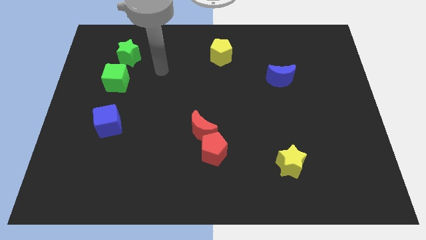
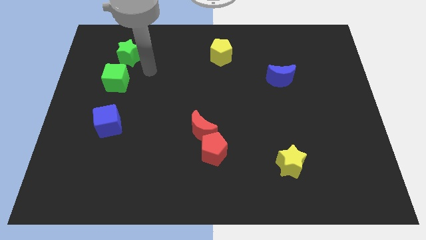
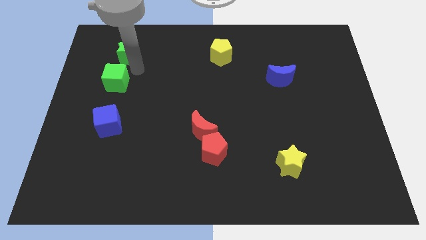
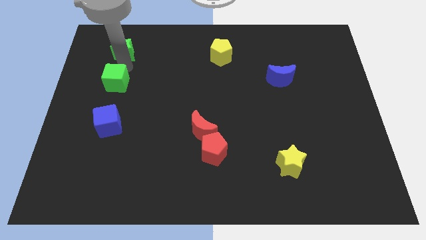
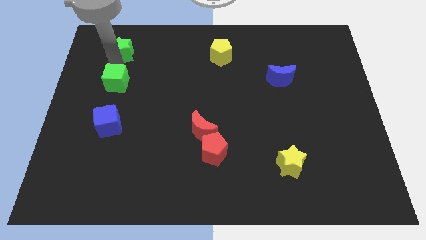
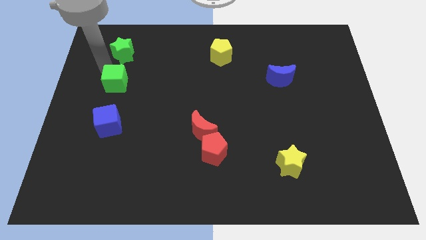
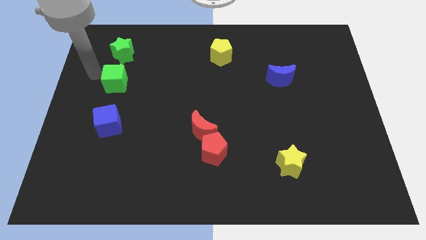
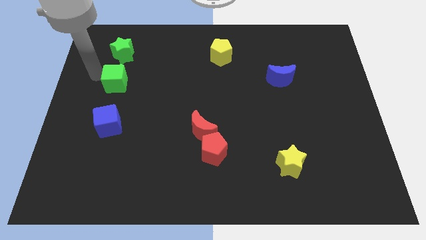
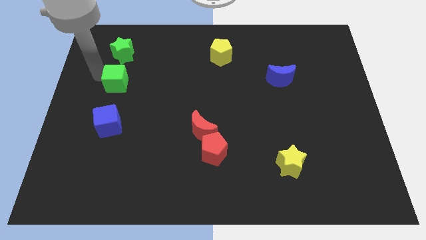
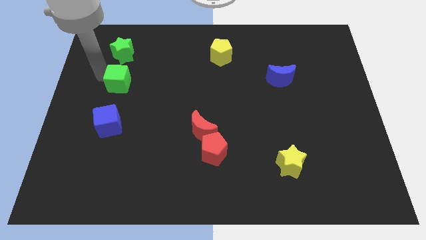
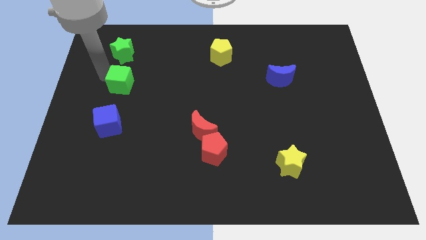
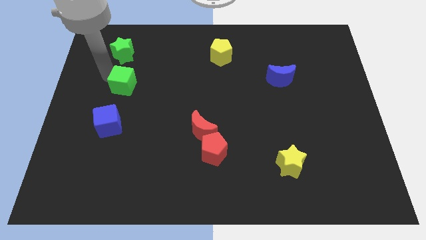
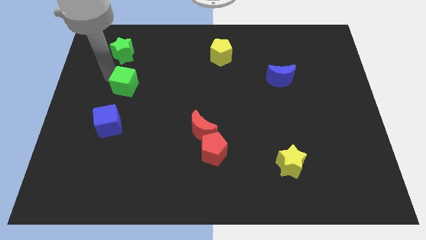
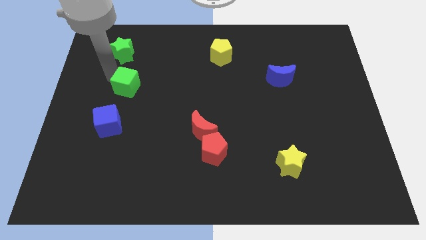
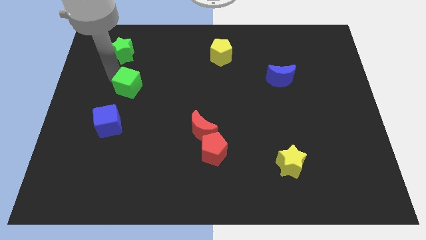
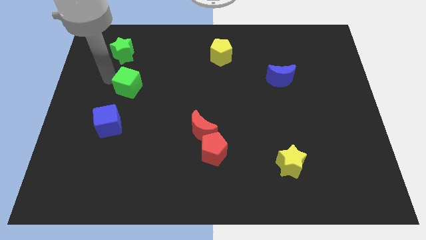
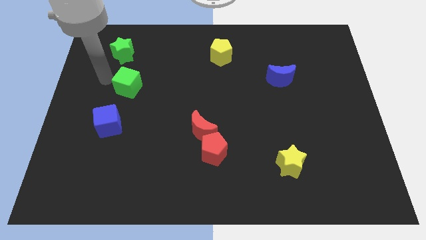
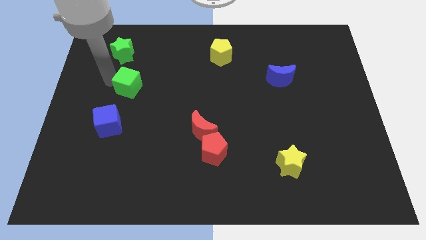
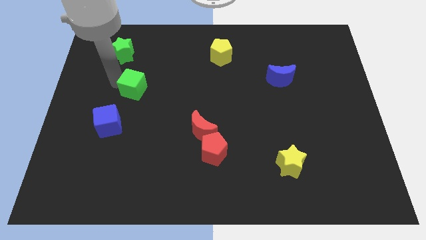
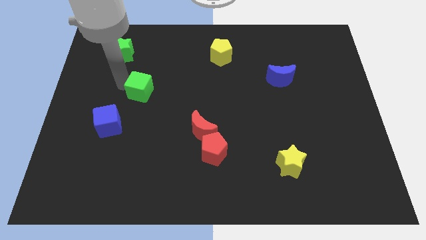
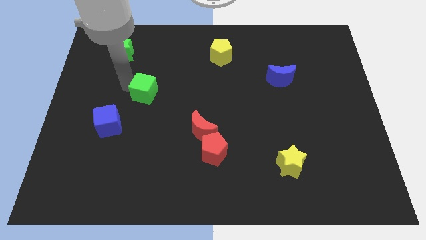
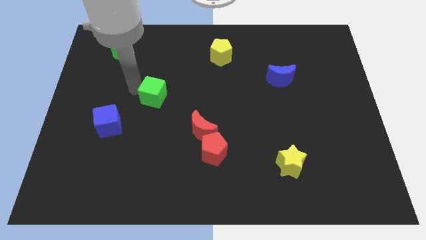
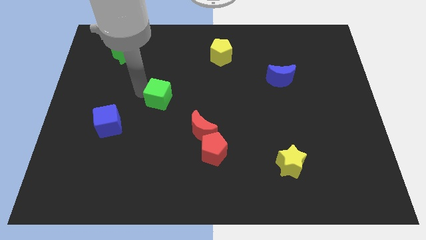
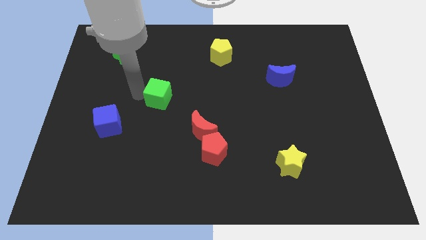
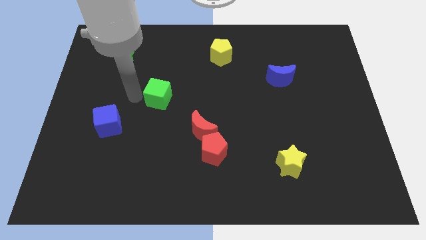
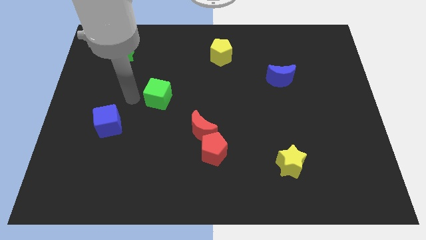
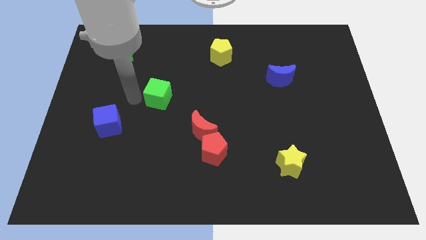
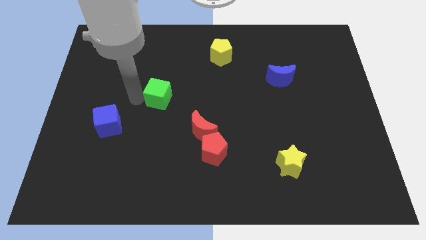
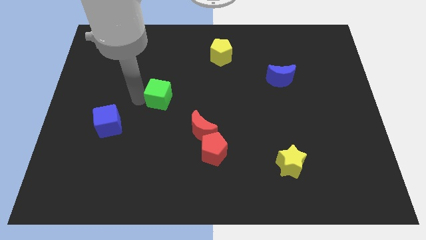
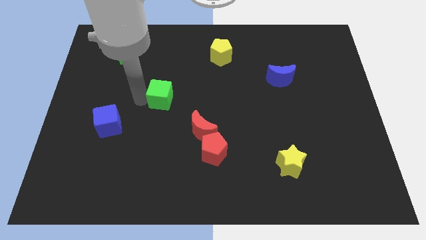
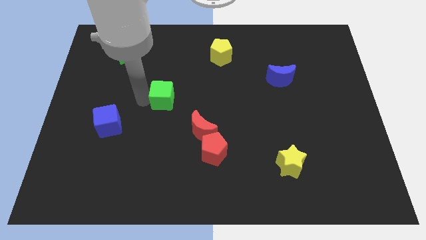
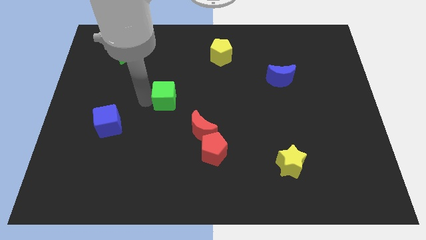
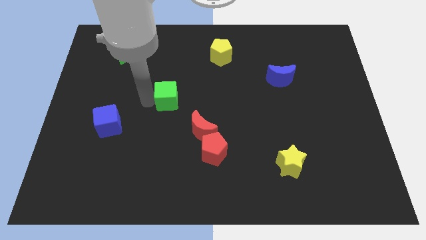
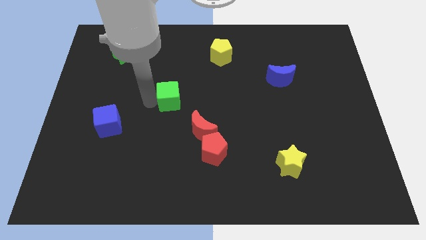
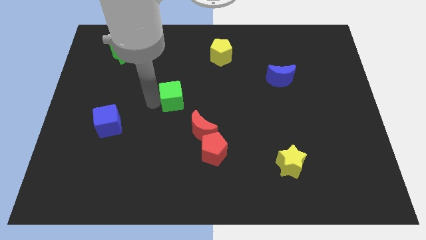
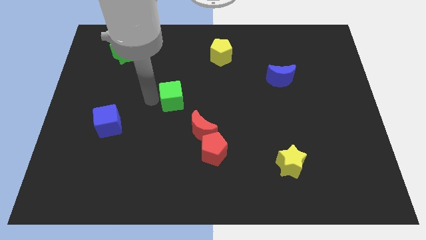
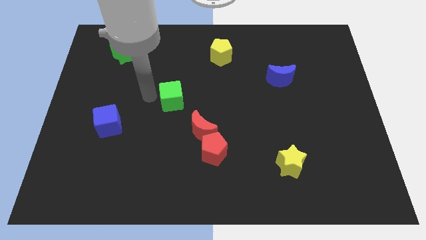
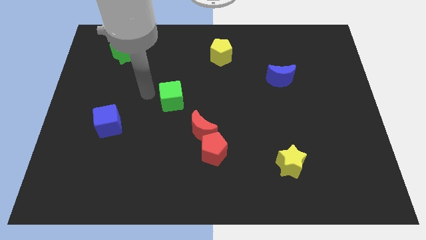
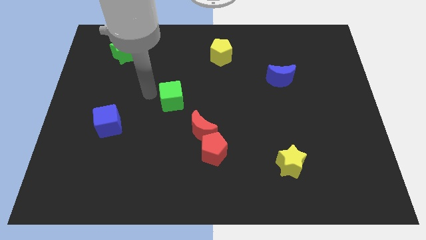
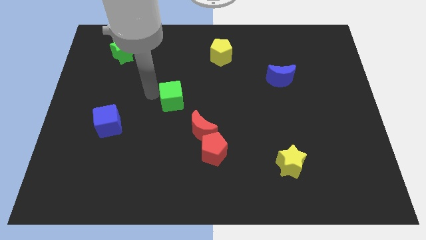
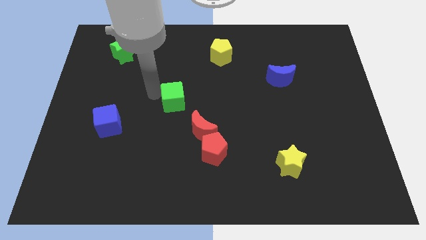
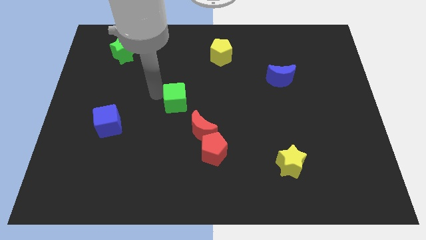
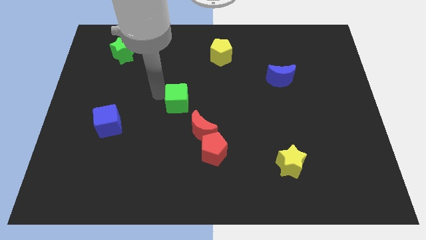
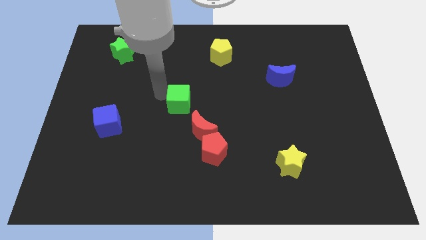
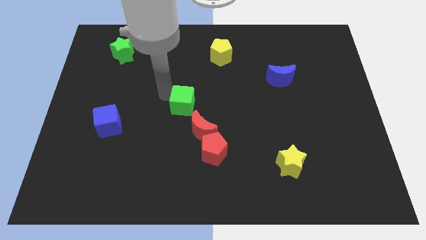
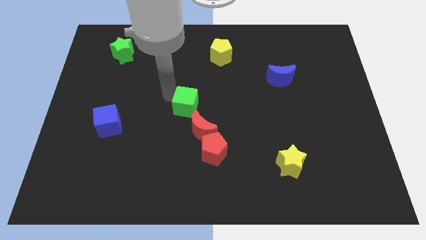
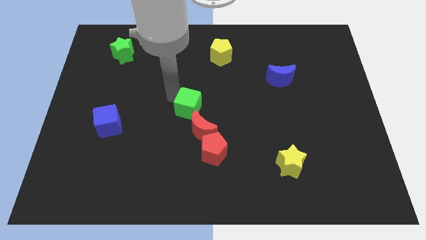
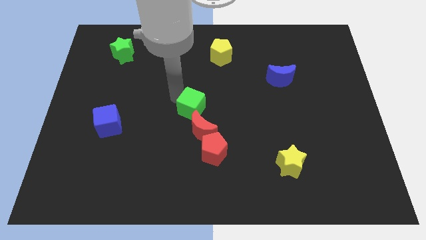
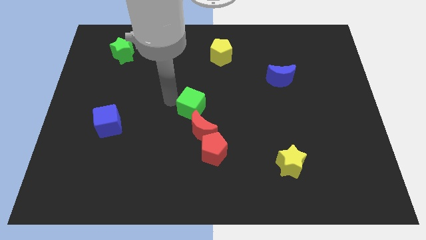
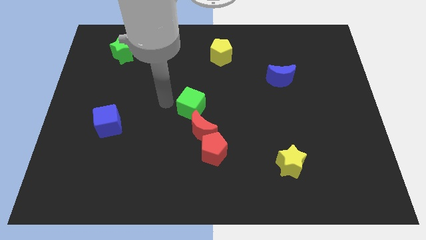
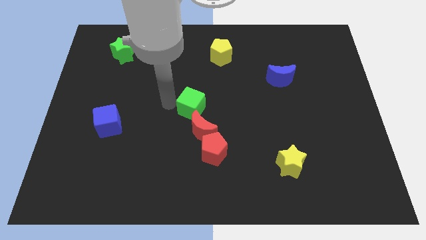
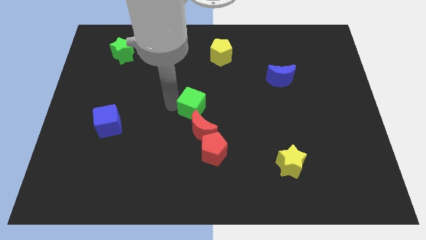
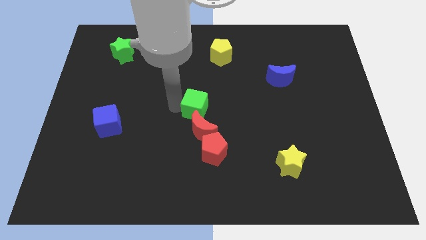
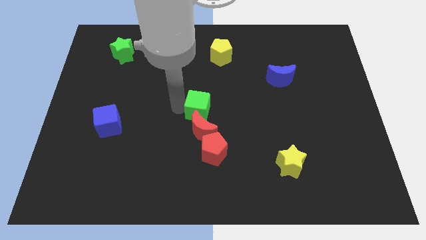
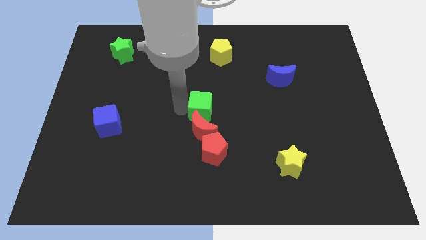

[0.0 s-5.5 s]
put the green cube to the top right side of the red moon

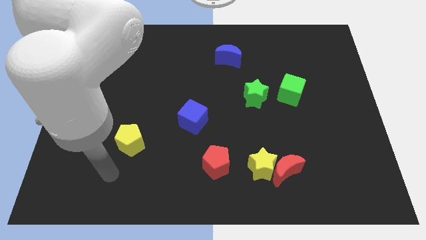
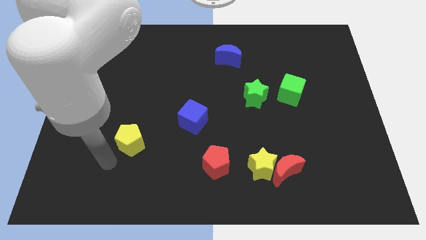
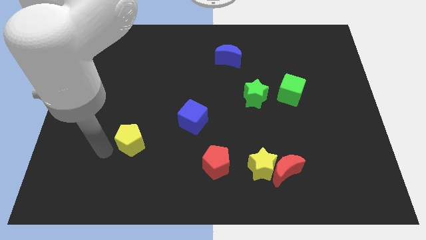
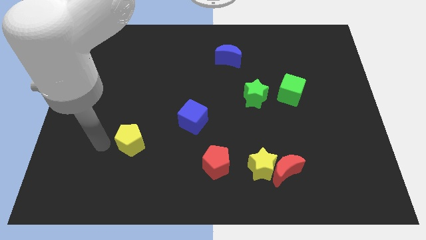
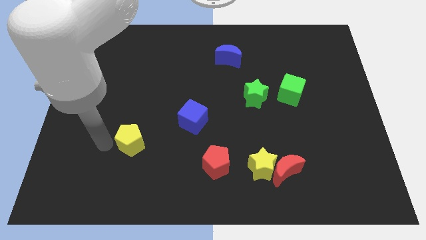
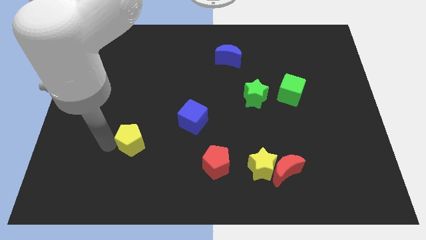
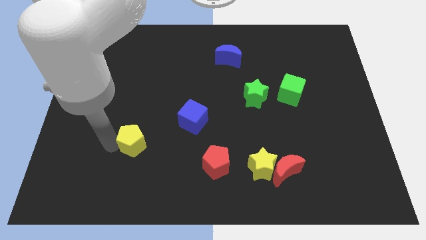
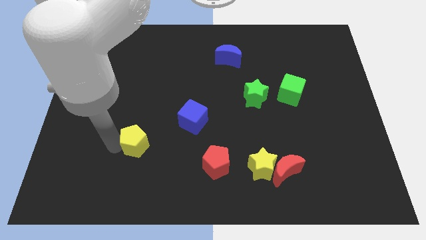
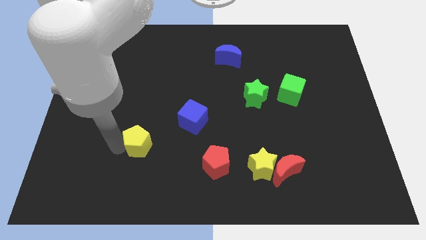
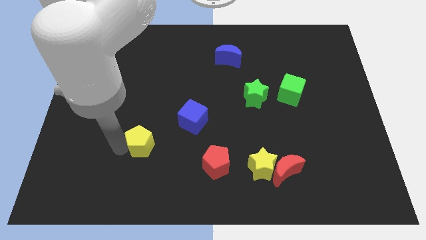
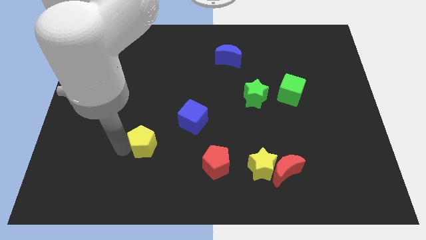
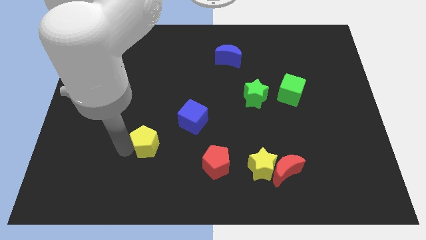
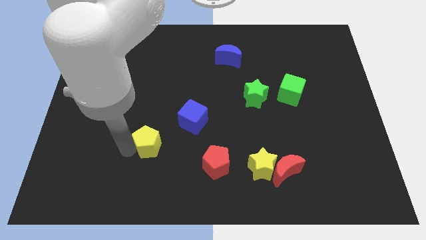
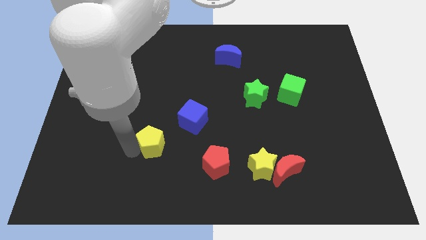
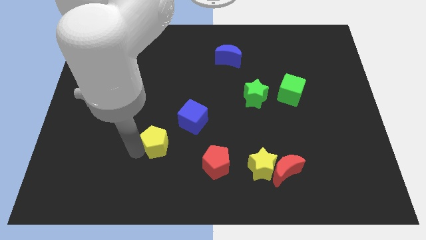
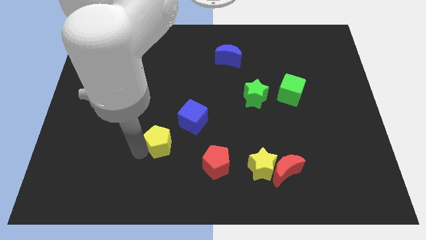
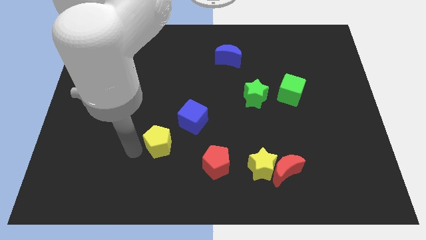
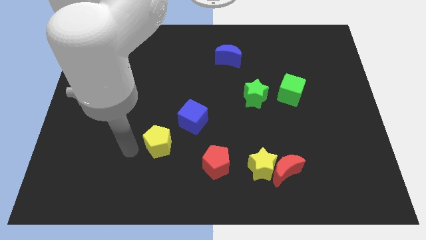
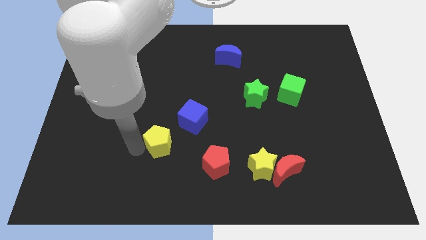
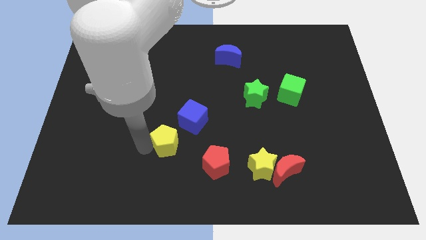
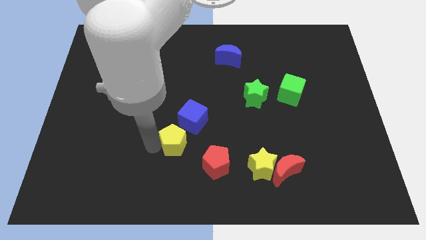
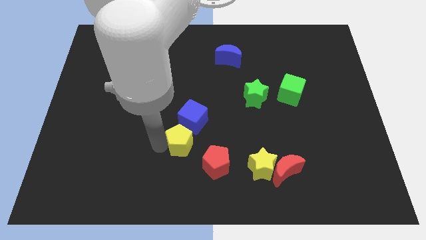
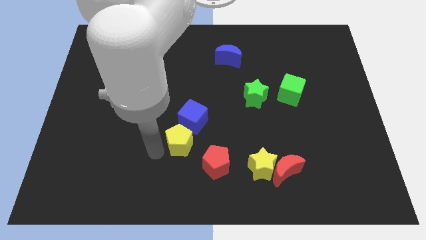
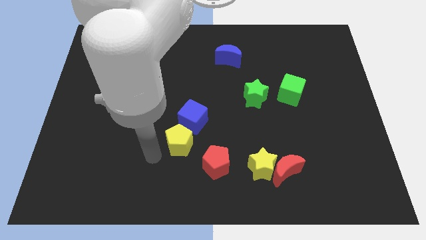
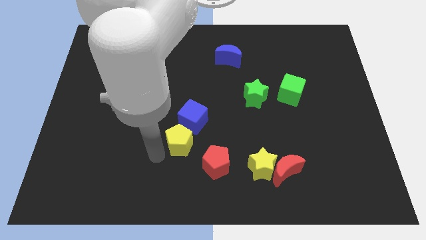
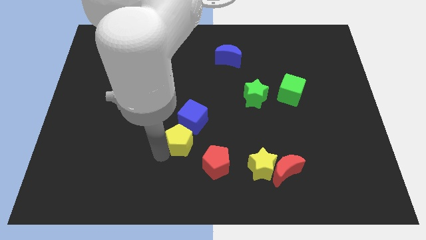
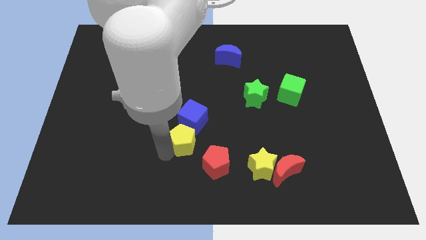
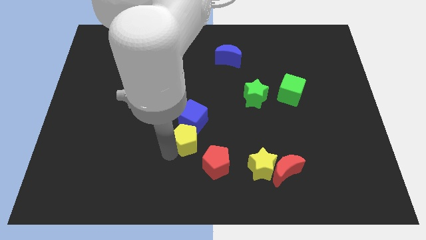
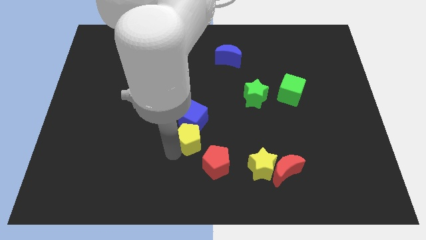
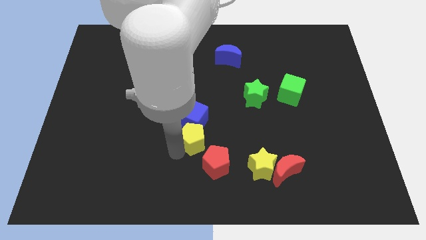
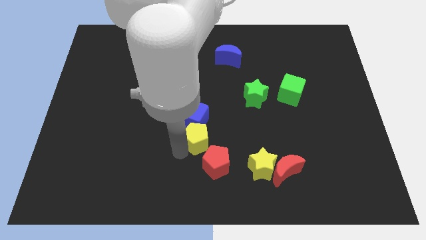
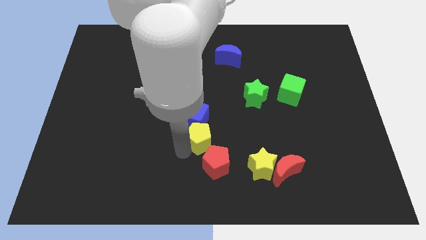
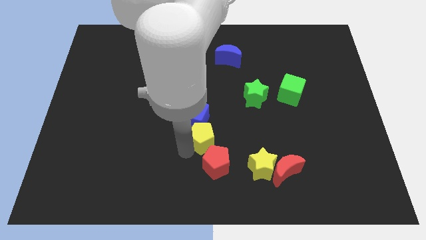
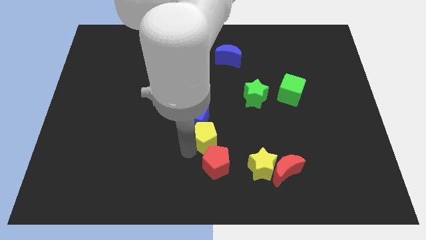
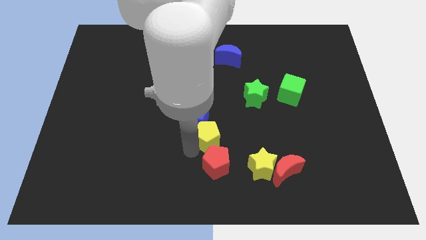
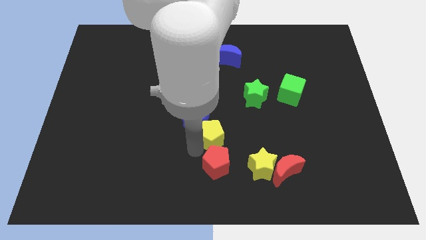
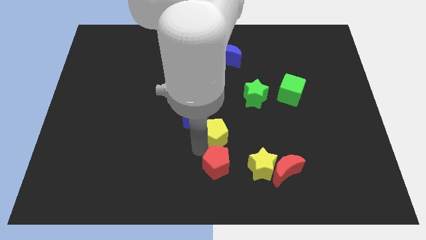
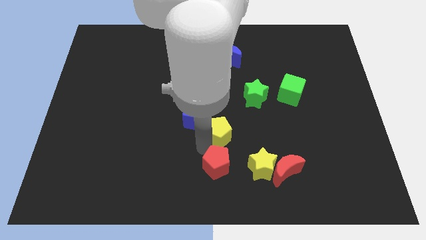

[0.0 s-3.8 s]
push the yellow pentagon to the right of the blue cube
